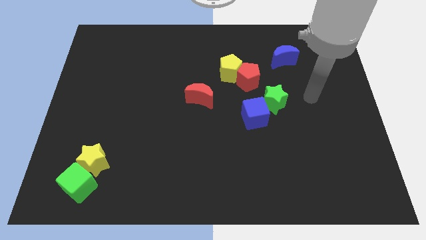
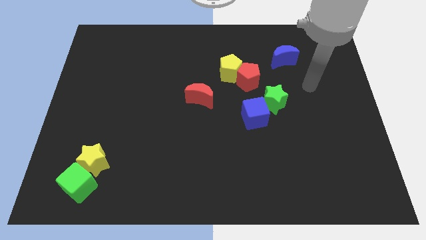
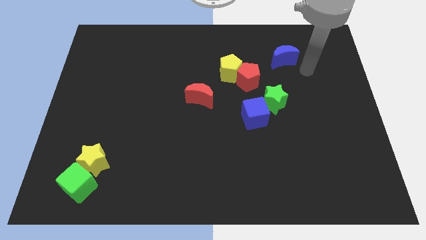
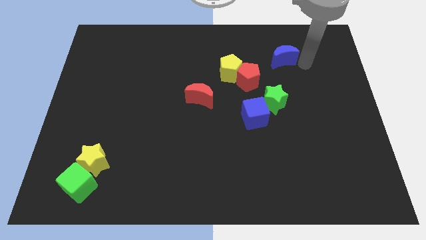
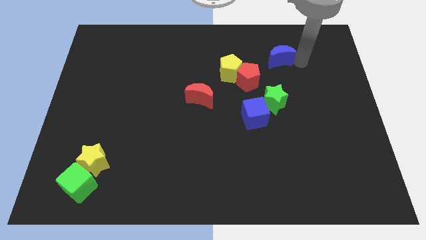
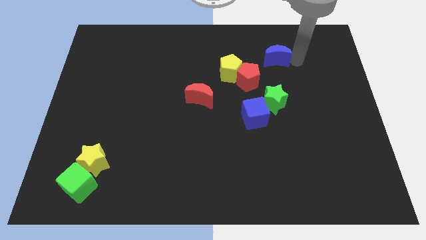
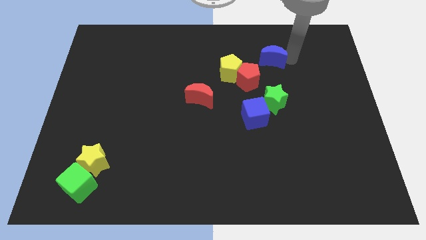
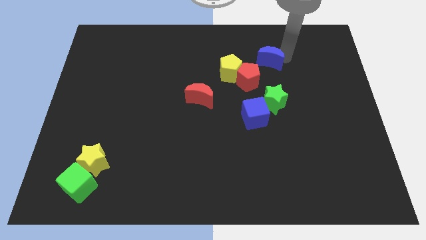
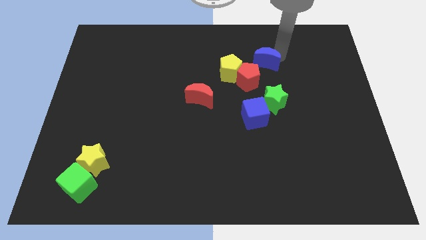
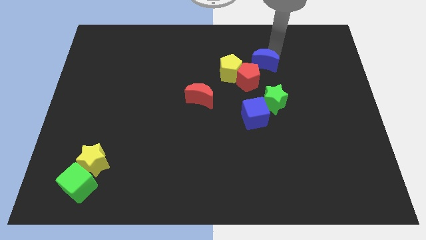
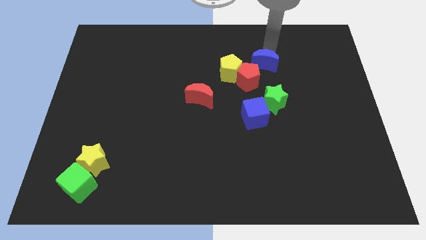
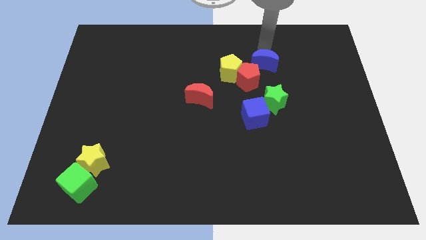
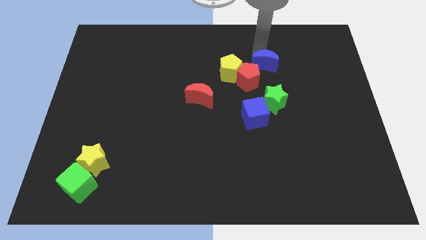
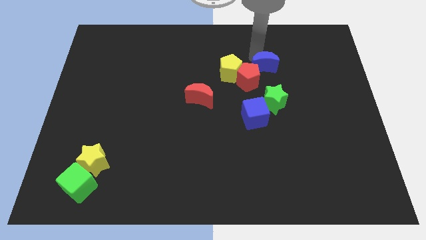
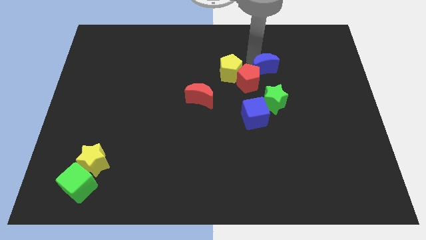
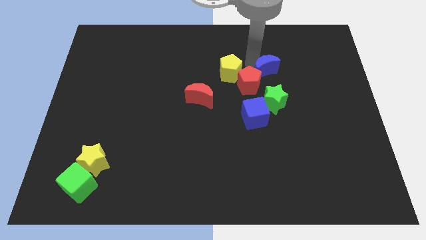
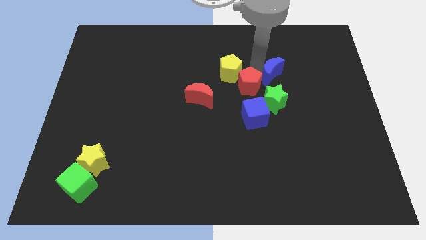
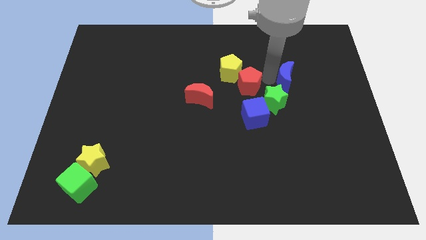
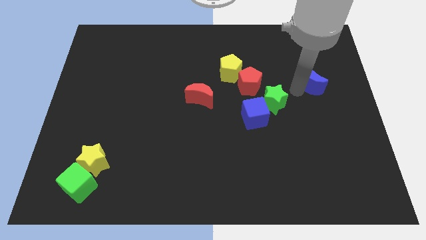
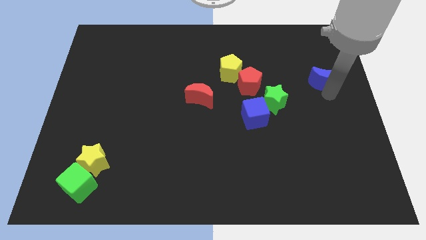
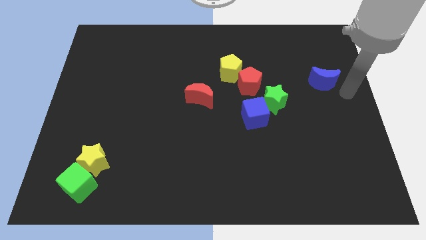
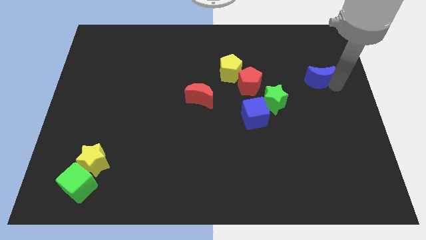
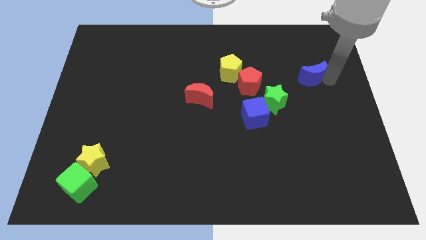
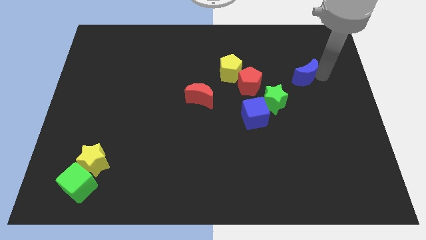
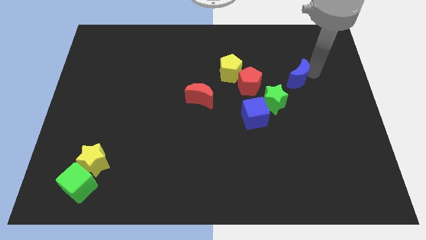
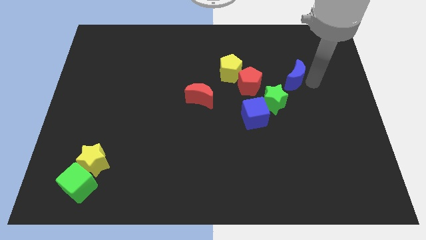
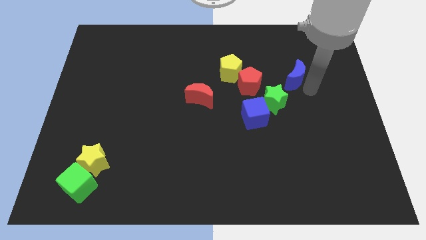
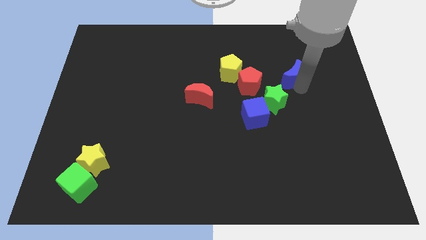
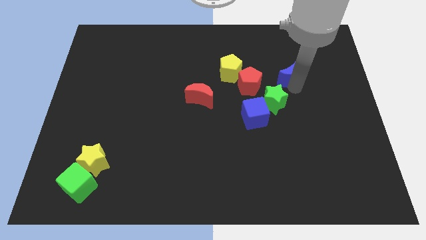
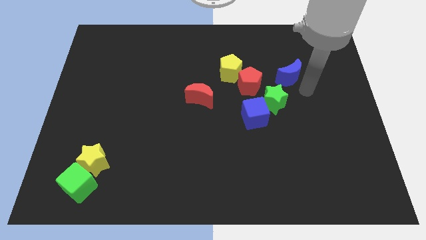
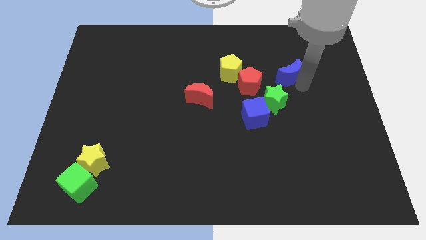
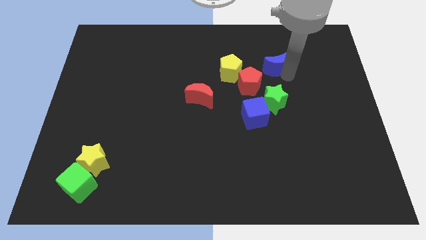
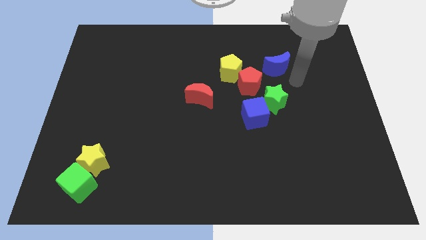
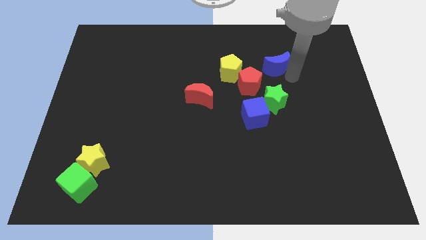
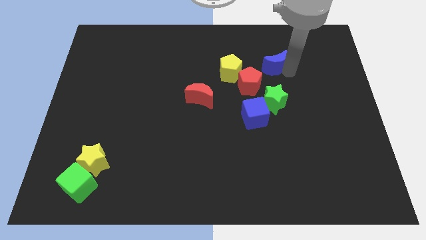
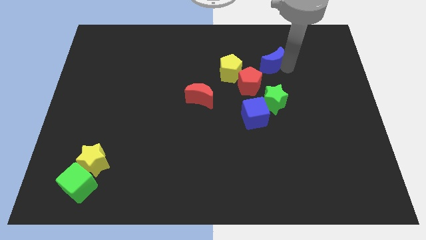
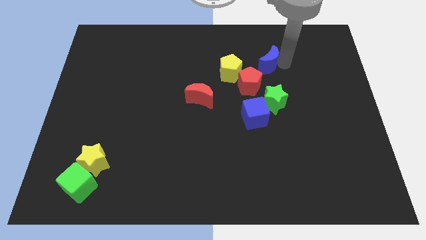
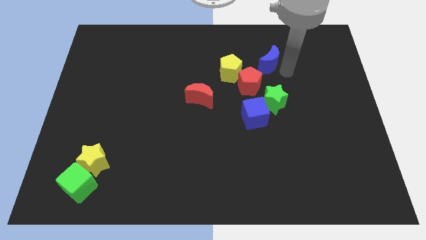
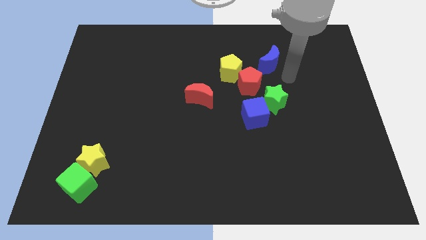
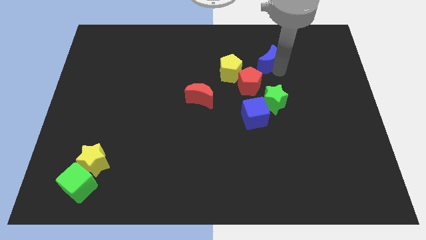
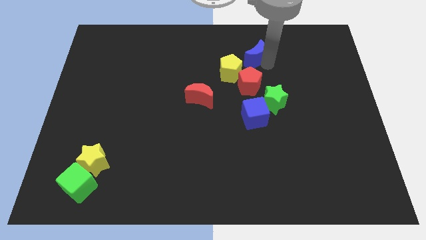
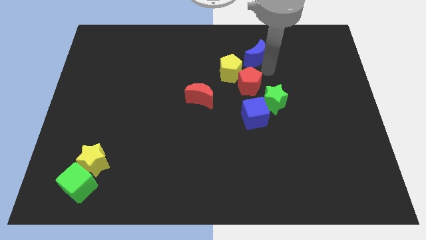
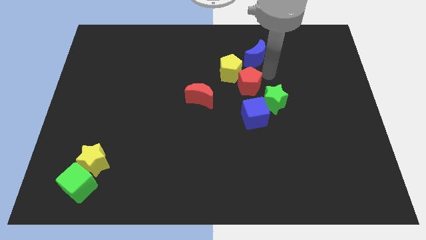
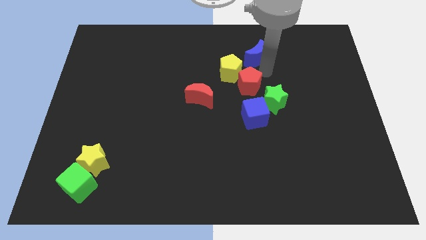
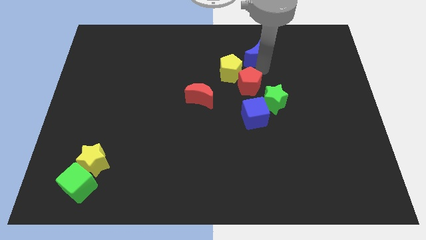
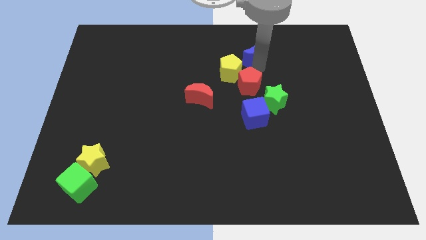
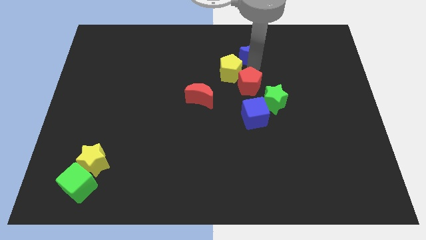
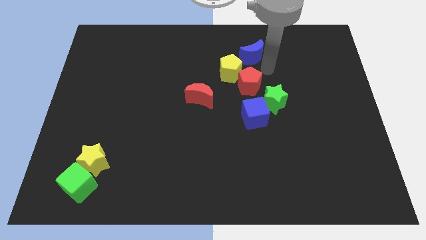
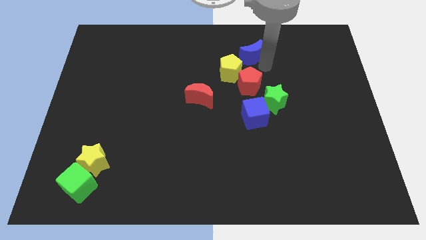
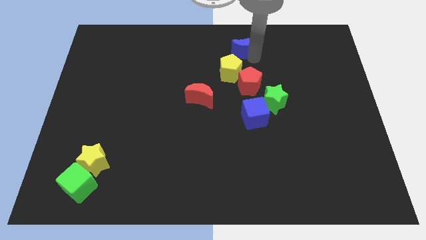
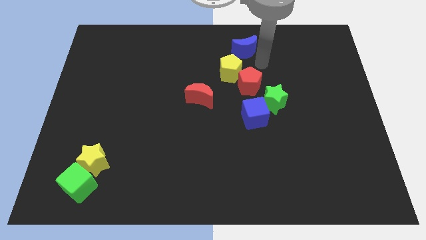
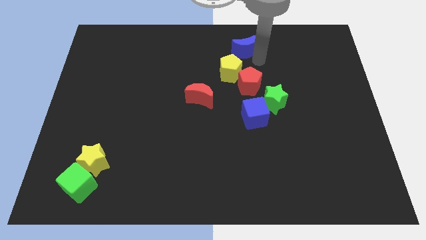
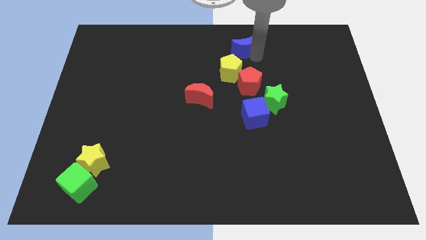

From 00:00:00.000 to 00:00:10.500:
slide the blue moon to the towards your base

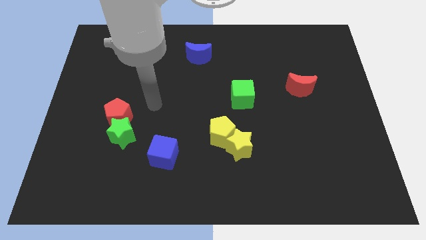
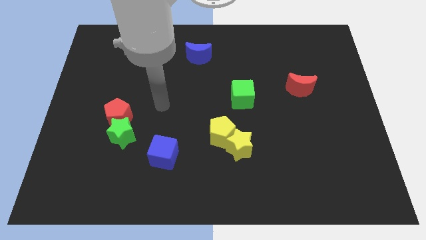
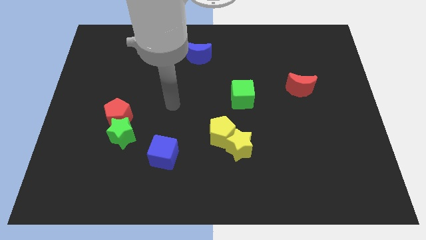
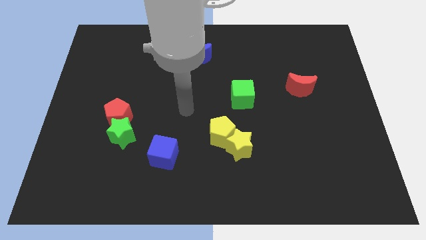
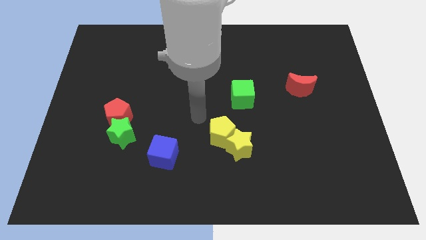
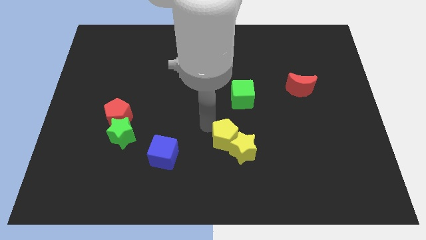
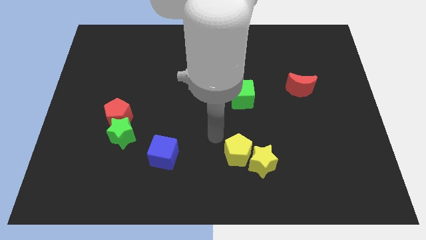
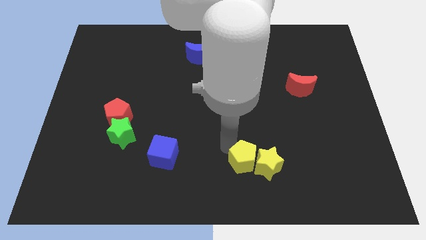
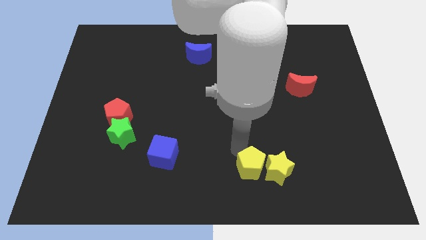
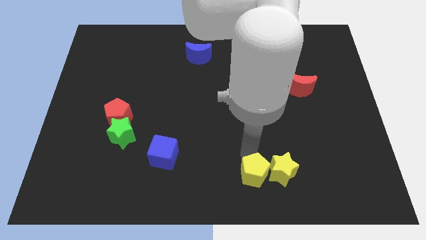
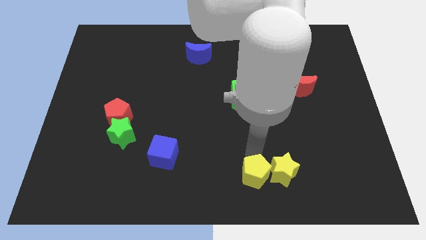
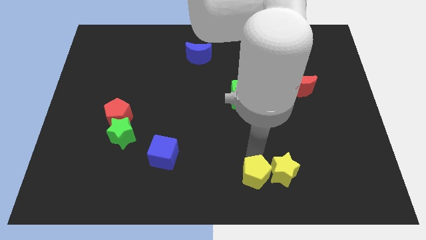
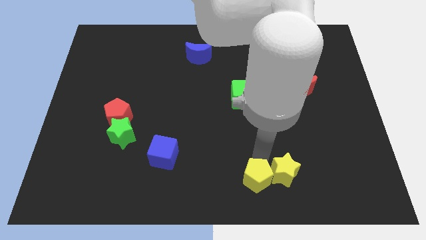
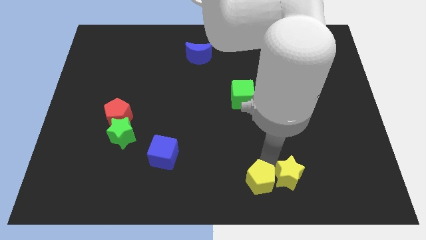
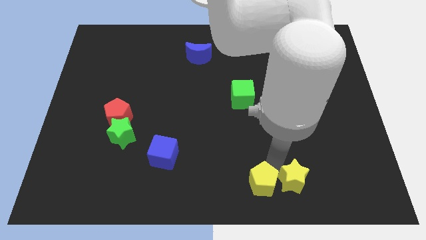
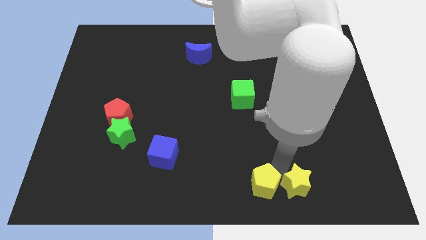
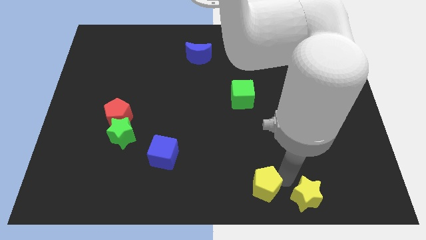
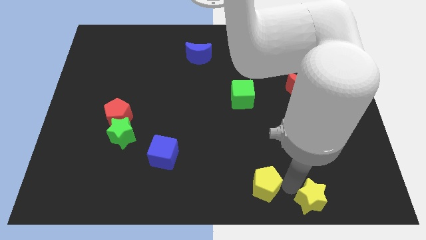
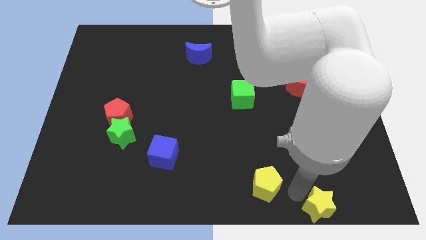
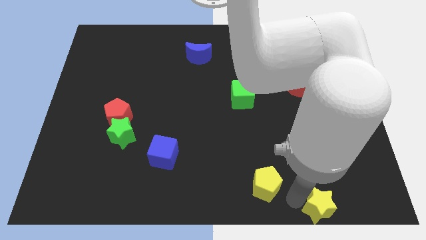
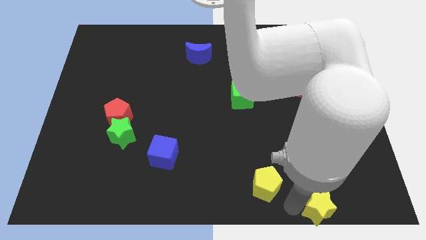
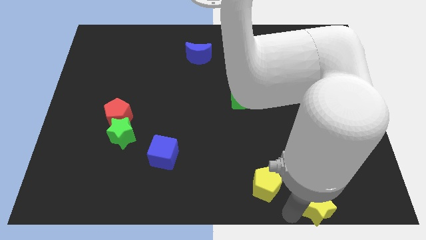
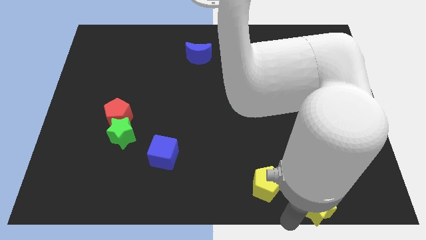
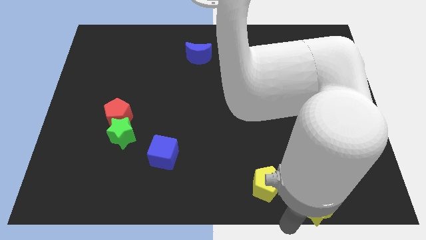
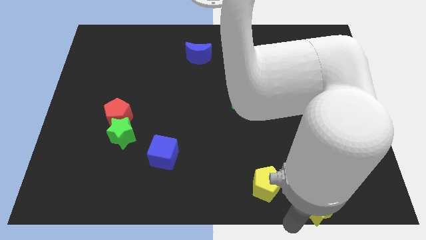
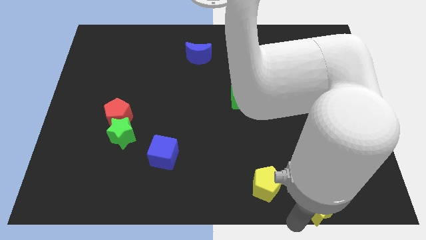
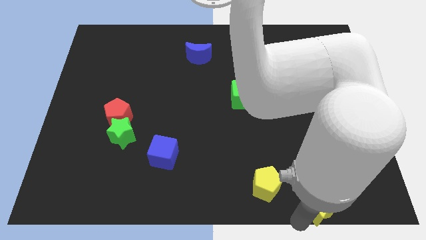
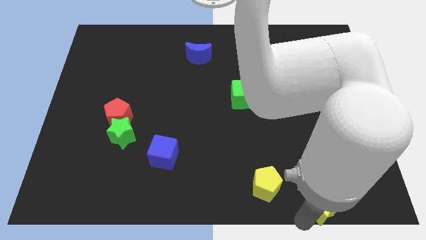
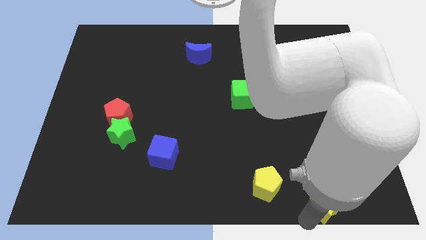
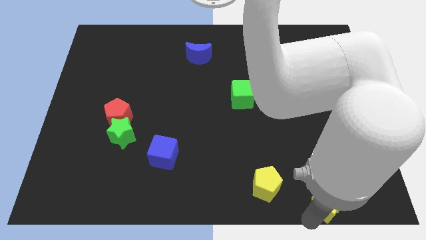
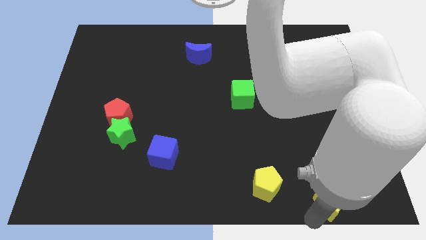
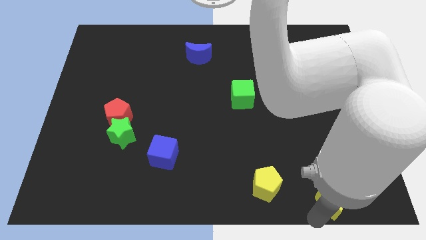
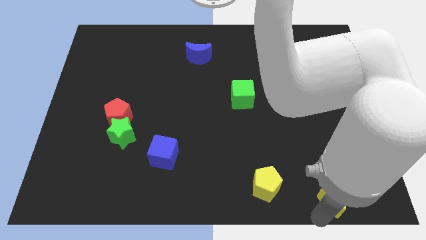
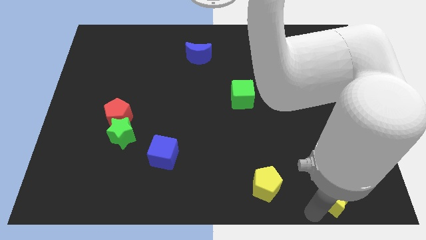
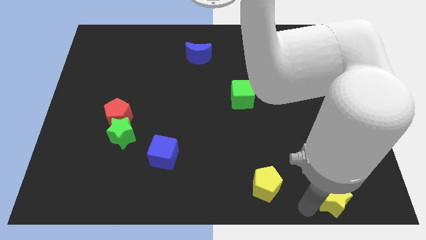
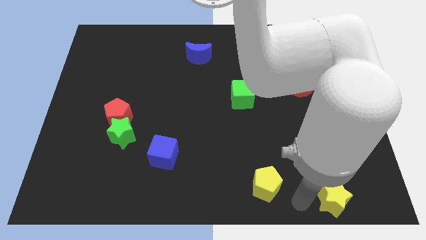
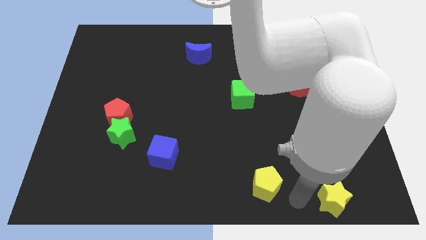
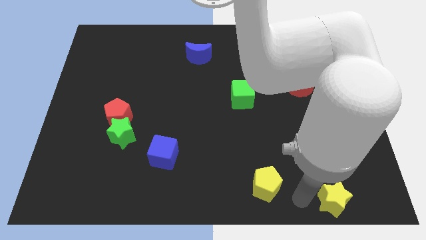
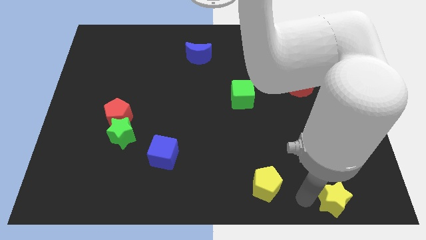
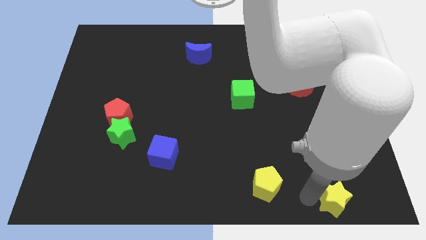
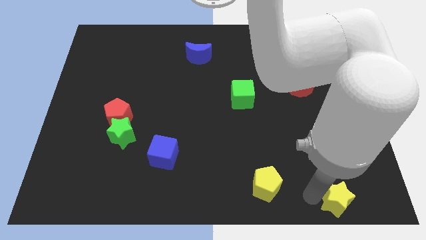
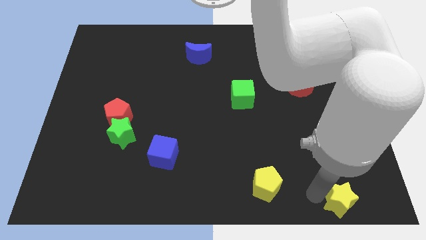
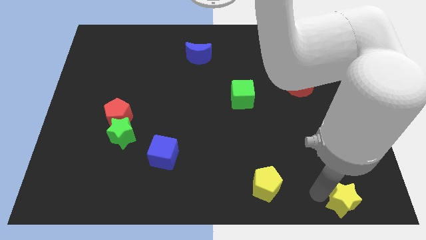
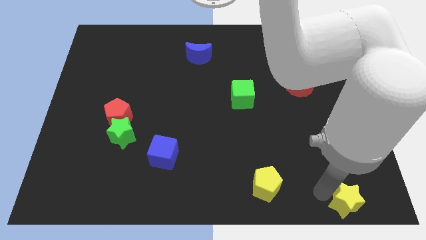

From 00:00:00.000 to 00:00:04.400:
push the yellow star to the lower right corner
